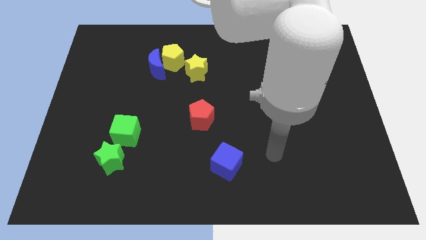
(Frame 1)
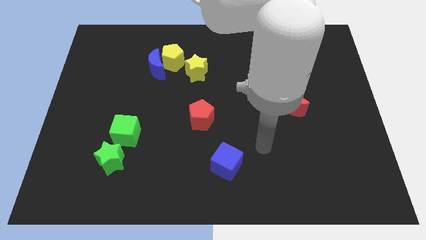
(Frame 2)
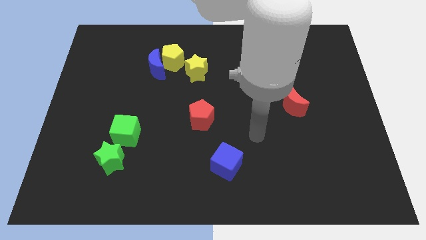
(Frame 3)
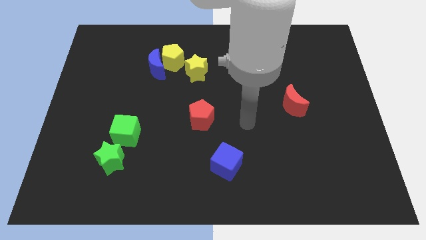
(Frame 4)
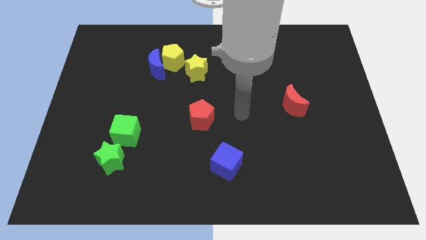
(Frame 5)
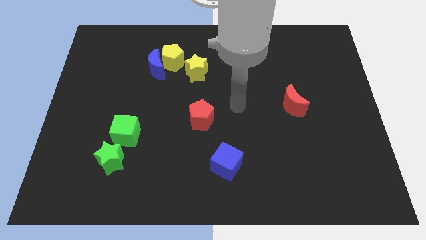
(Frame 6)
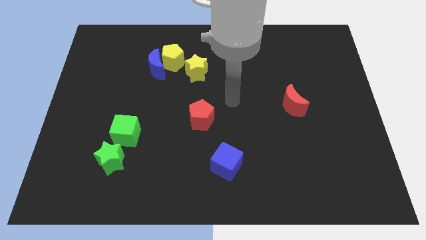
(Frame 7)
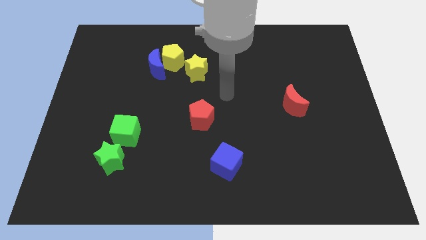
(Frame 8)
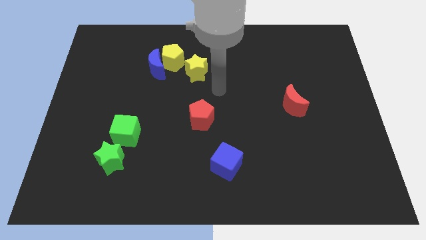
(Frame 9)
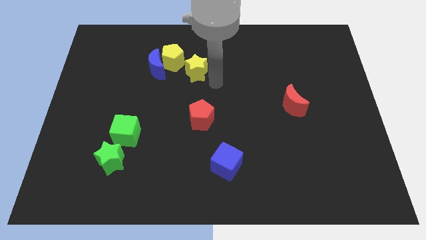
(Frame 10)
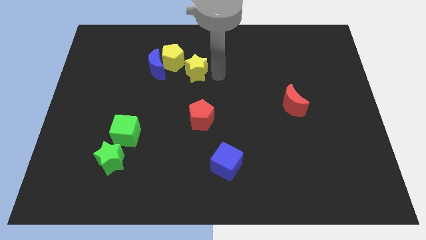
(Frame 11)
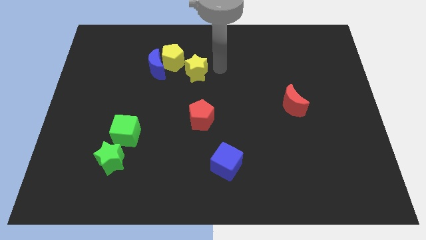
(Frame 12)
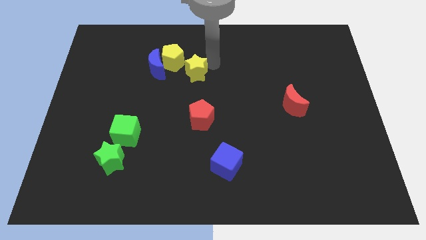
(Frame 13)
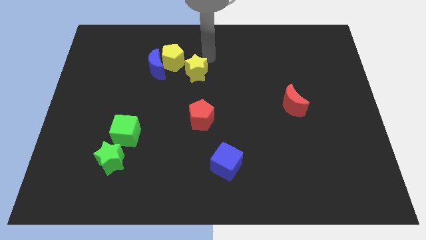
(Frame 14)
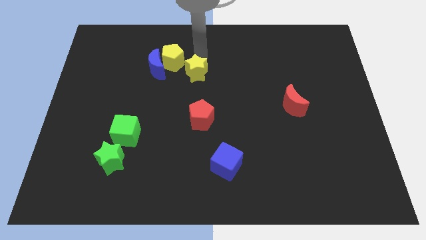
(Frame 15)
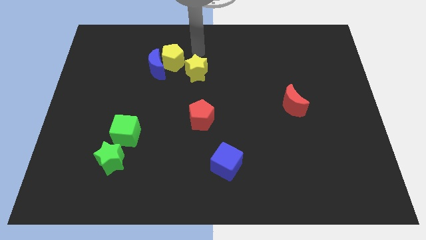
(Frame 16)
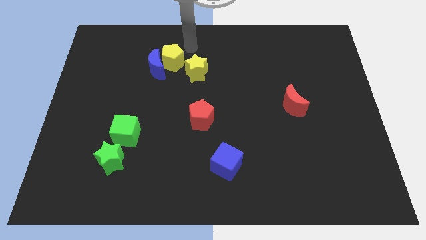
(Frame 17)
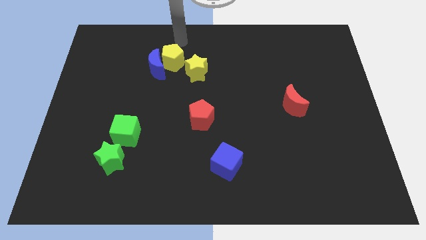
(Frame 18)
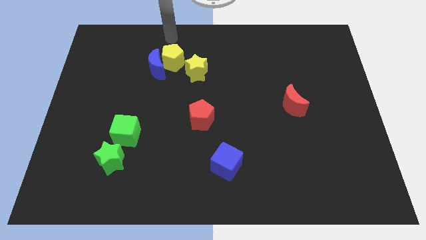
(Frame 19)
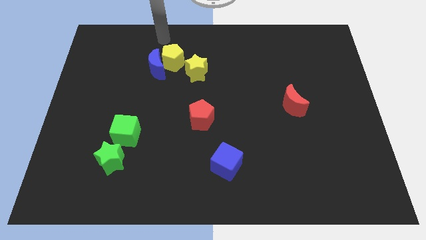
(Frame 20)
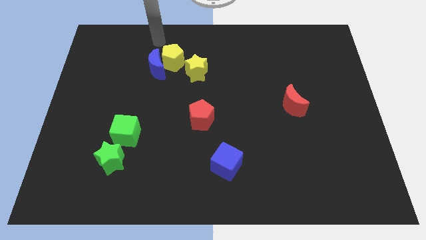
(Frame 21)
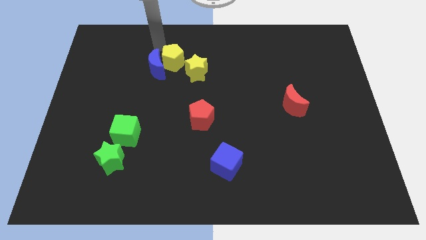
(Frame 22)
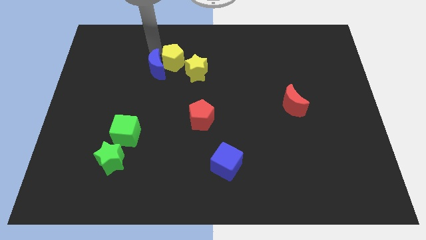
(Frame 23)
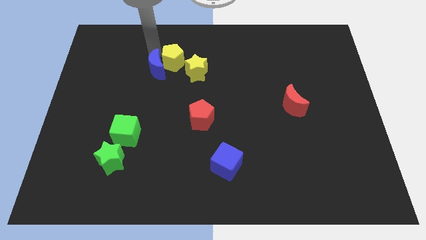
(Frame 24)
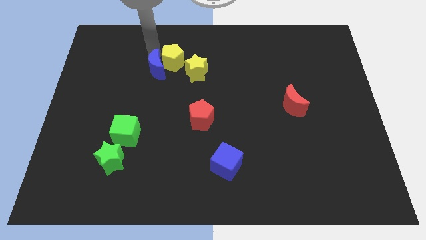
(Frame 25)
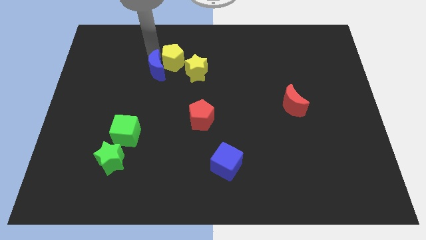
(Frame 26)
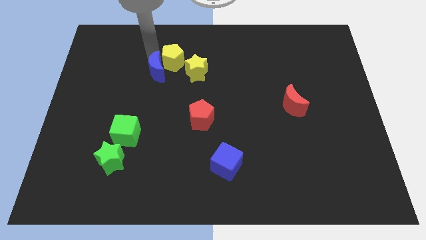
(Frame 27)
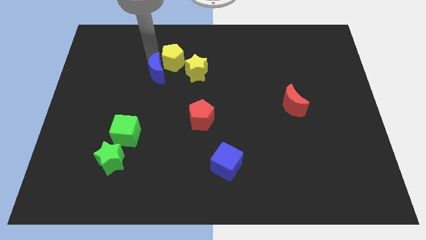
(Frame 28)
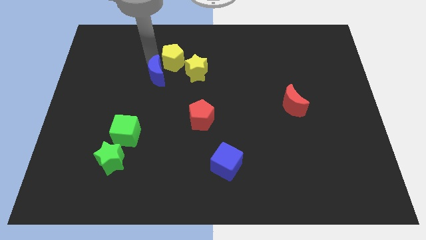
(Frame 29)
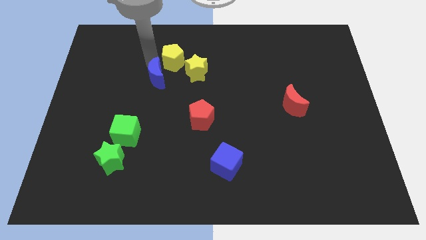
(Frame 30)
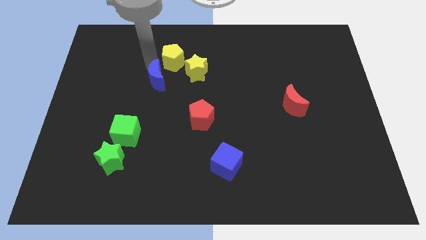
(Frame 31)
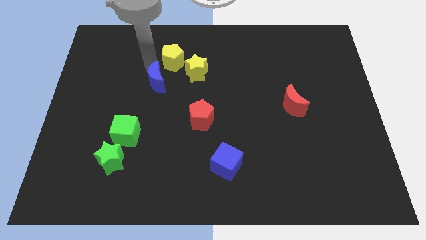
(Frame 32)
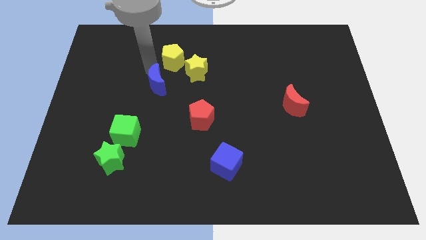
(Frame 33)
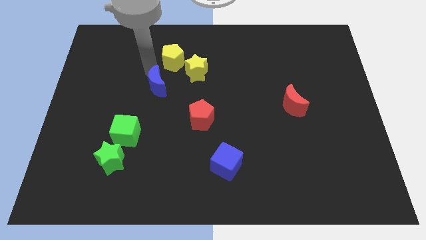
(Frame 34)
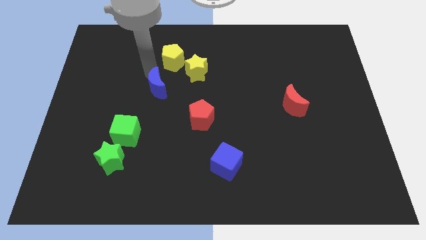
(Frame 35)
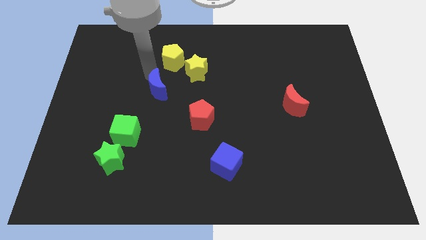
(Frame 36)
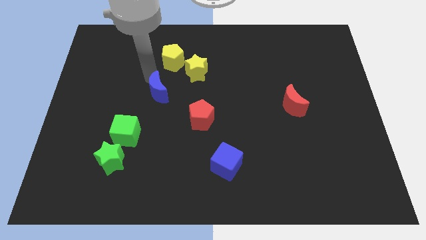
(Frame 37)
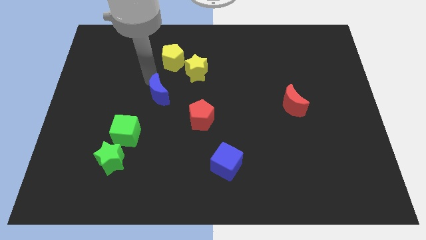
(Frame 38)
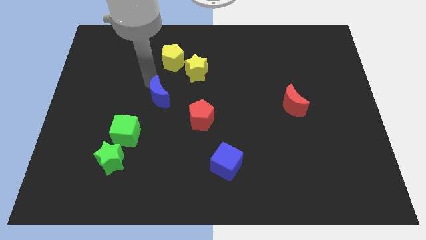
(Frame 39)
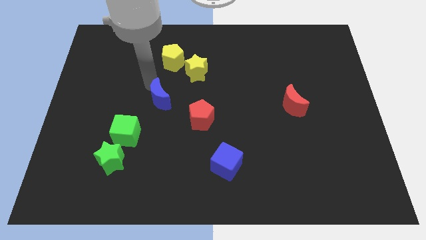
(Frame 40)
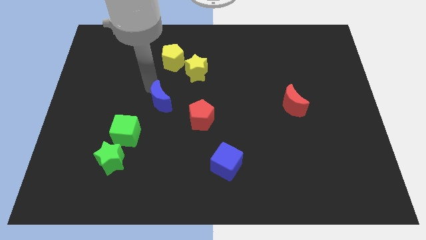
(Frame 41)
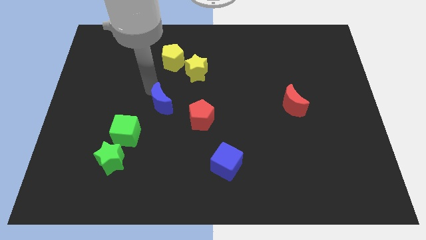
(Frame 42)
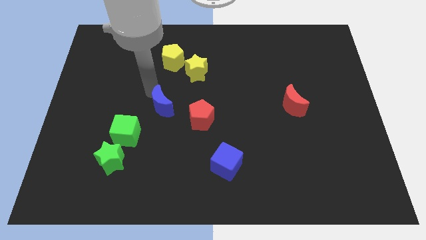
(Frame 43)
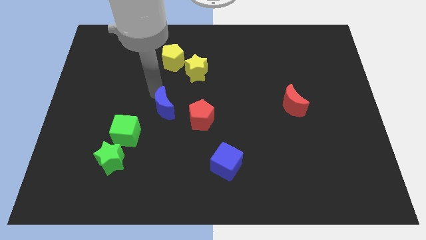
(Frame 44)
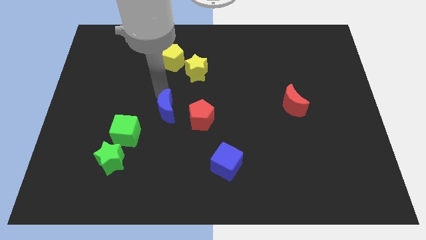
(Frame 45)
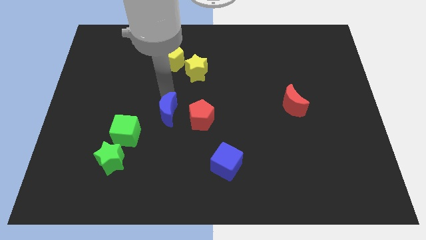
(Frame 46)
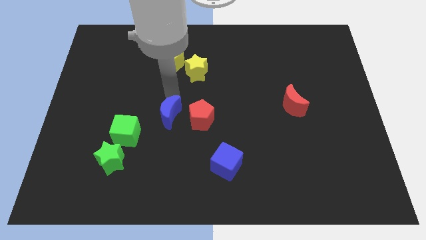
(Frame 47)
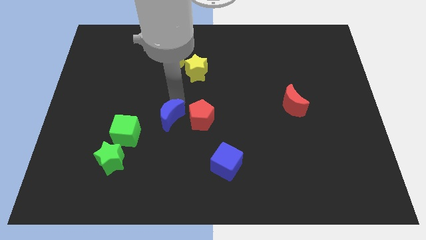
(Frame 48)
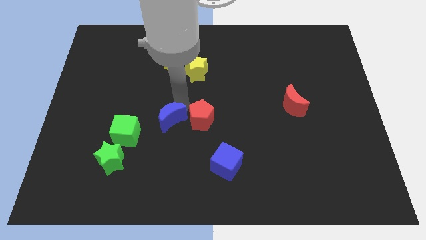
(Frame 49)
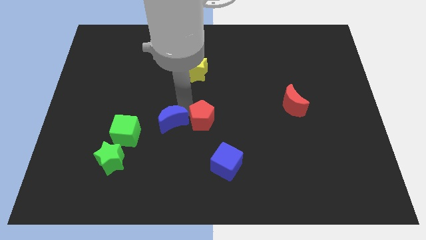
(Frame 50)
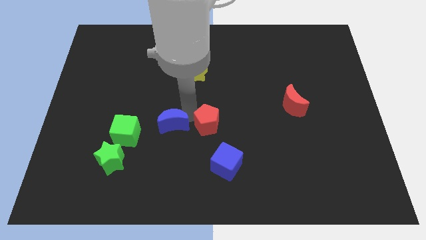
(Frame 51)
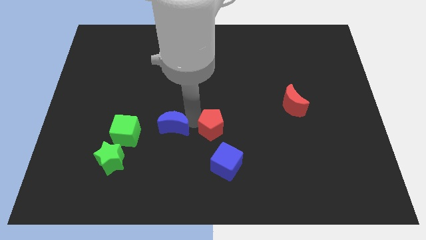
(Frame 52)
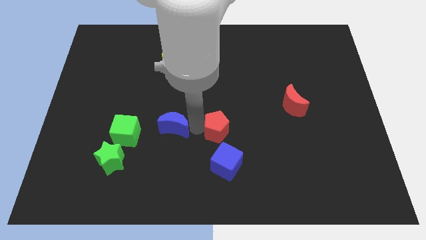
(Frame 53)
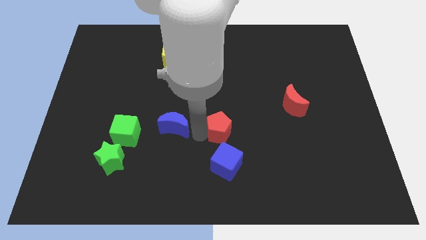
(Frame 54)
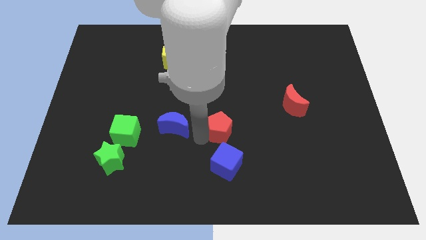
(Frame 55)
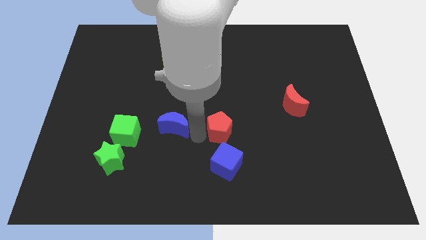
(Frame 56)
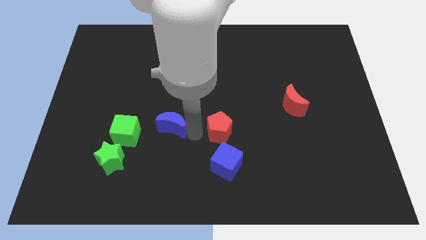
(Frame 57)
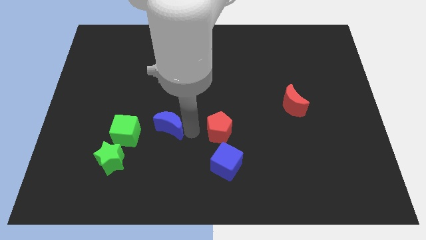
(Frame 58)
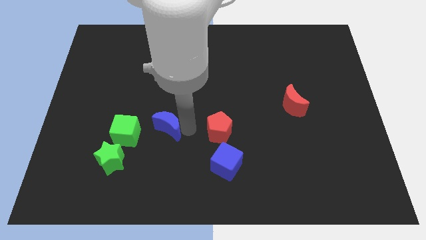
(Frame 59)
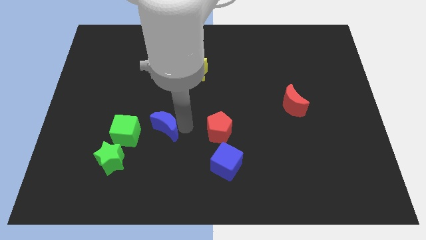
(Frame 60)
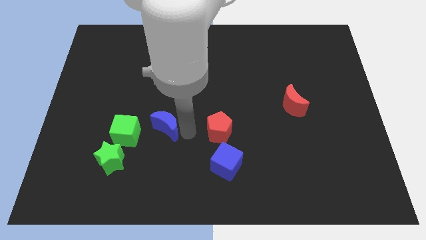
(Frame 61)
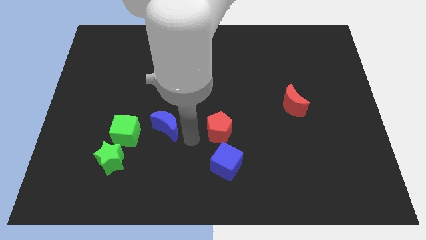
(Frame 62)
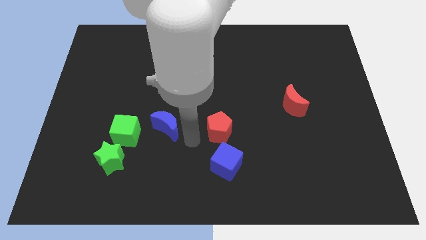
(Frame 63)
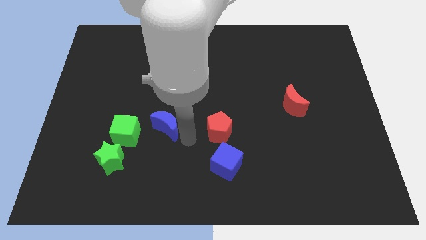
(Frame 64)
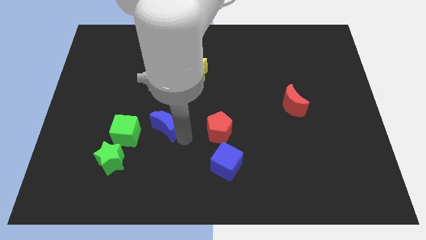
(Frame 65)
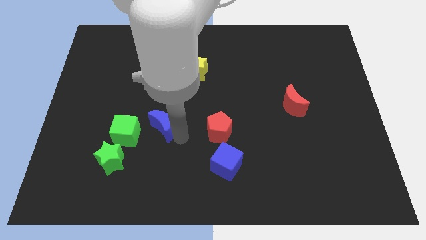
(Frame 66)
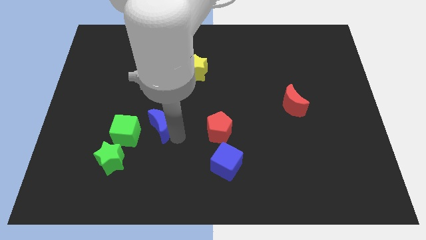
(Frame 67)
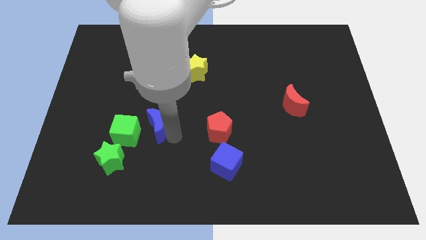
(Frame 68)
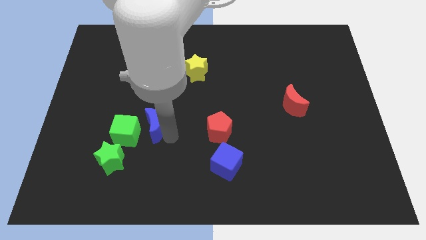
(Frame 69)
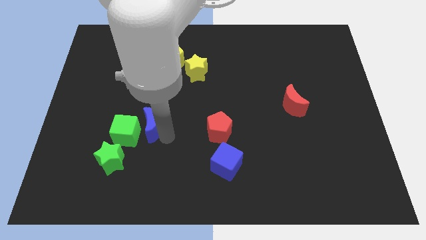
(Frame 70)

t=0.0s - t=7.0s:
move the blue moon towards the green cube
